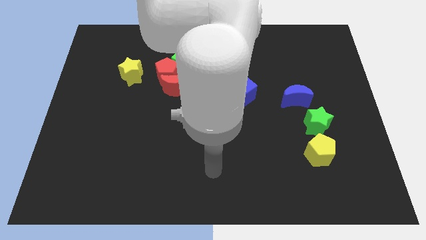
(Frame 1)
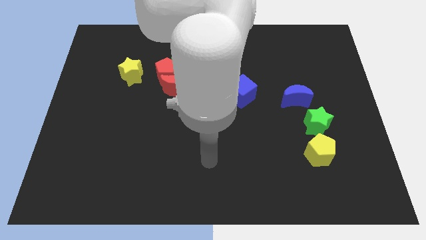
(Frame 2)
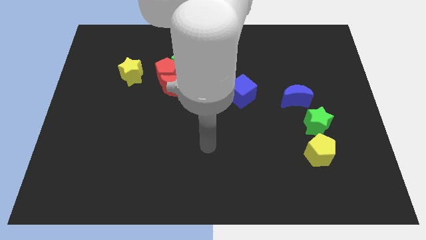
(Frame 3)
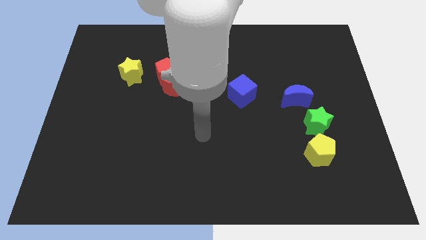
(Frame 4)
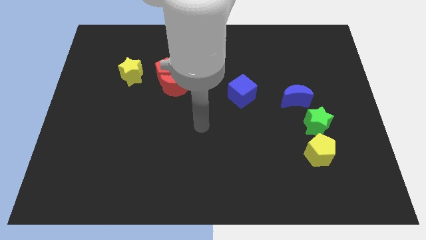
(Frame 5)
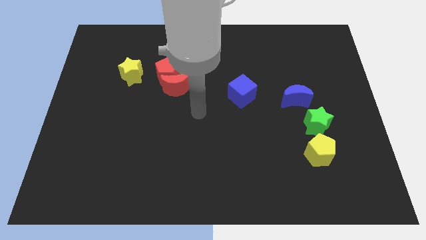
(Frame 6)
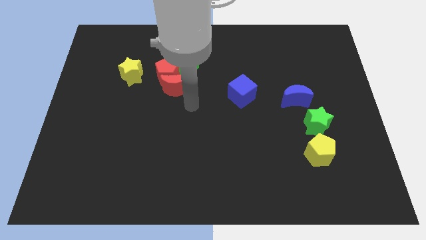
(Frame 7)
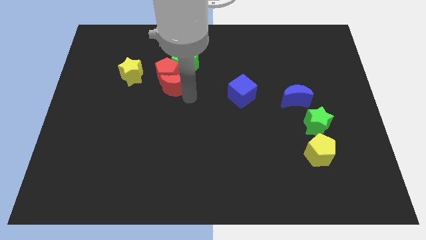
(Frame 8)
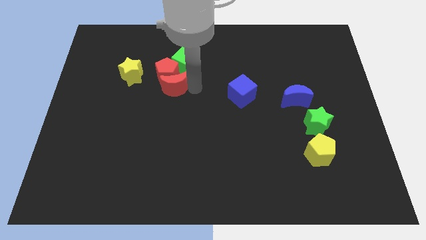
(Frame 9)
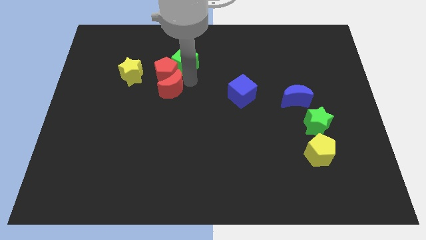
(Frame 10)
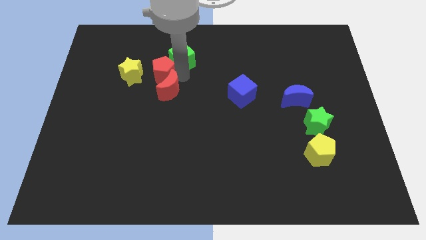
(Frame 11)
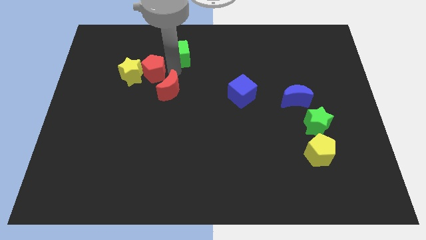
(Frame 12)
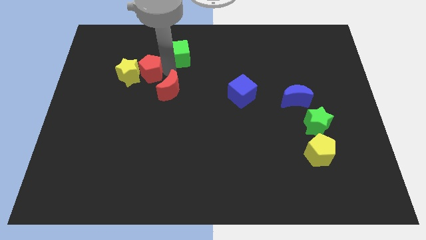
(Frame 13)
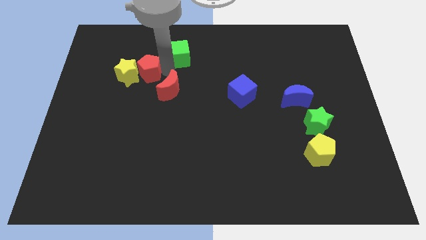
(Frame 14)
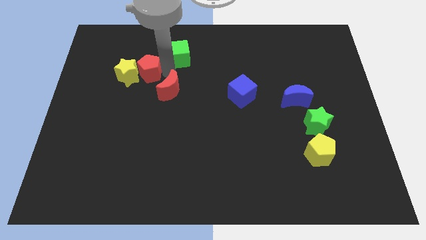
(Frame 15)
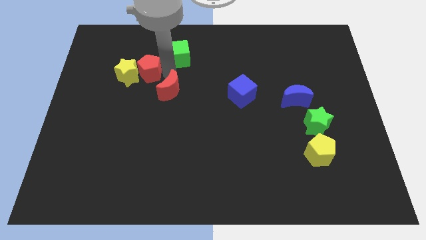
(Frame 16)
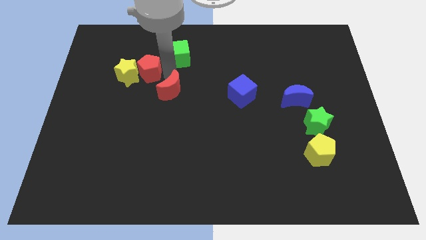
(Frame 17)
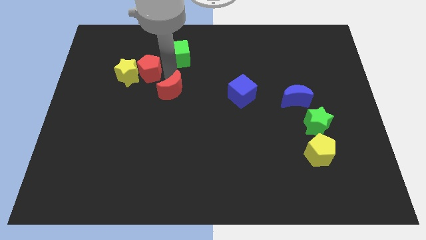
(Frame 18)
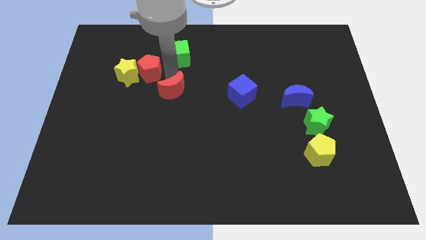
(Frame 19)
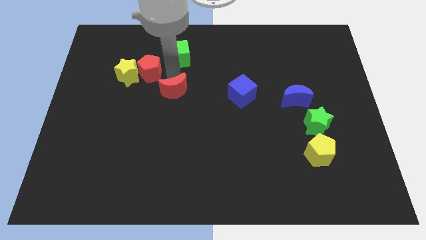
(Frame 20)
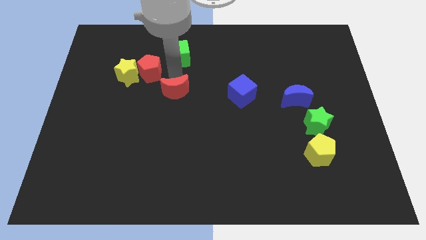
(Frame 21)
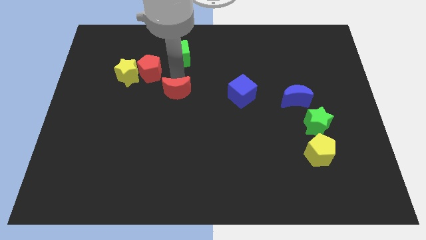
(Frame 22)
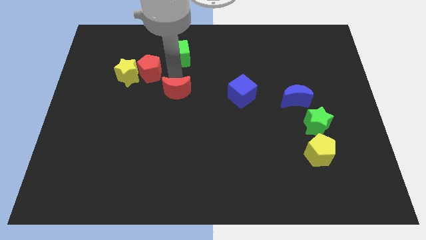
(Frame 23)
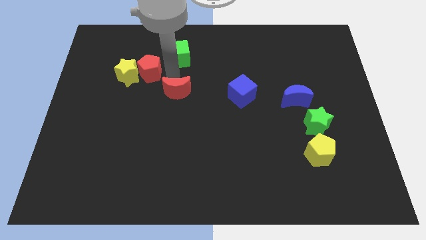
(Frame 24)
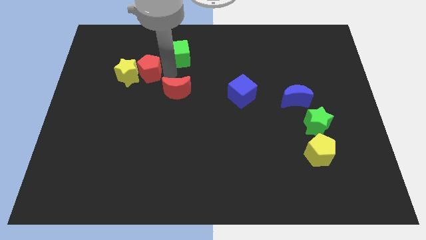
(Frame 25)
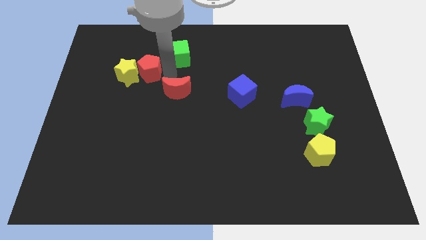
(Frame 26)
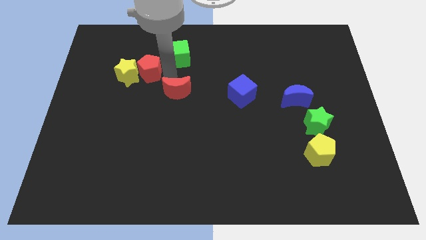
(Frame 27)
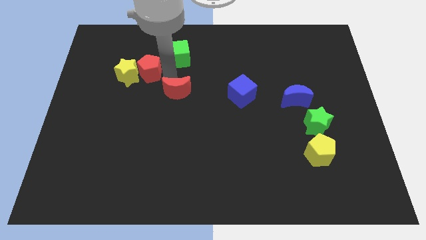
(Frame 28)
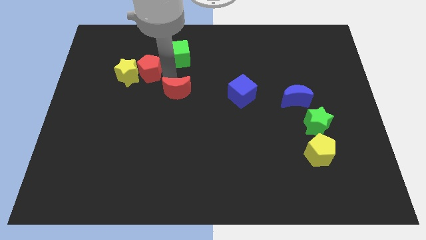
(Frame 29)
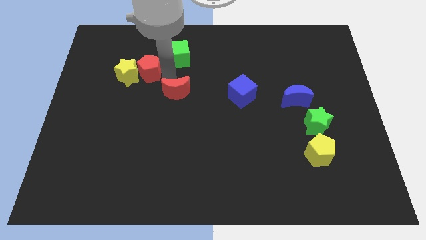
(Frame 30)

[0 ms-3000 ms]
separate the red moon from the red pentagon and green cube

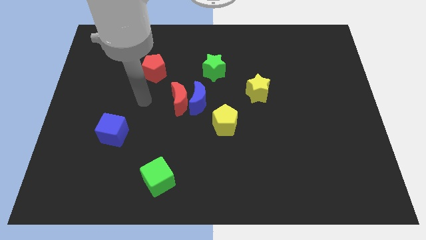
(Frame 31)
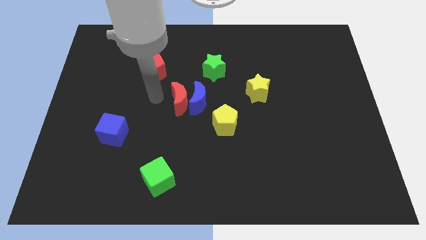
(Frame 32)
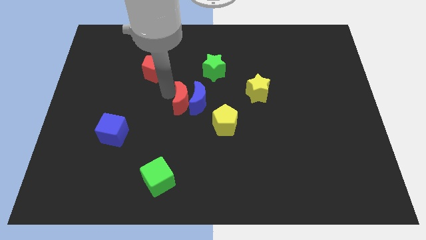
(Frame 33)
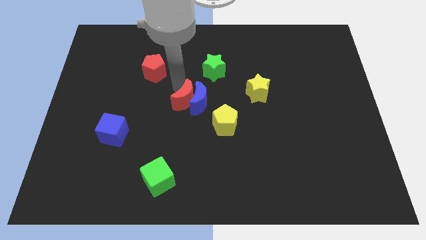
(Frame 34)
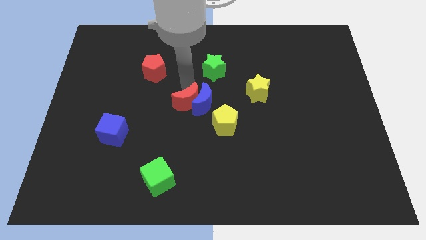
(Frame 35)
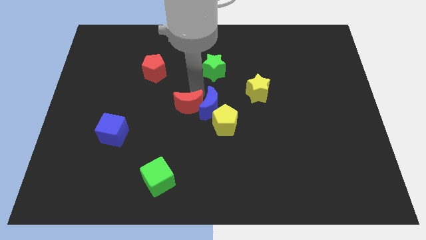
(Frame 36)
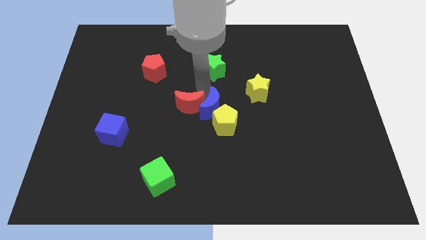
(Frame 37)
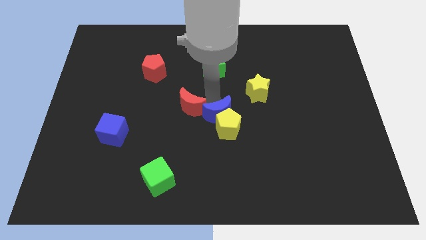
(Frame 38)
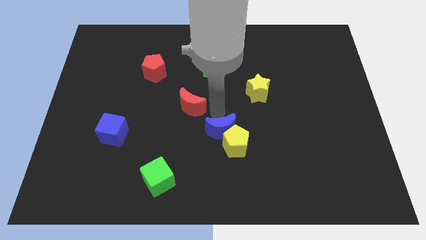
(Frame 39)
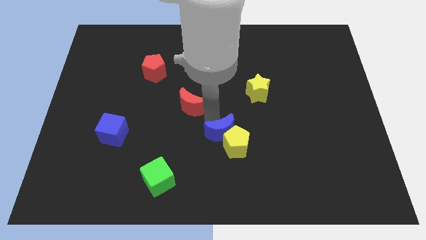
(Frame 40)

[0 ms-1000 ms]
pull the red moon apart from the blue moon

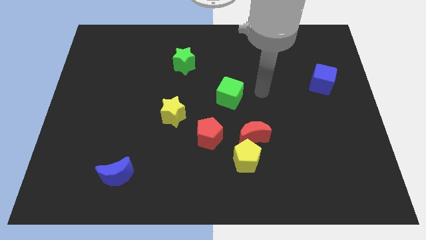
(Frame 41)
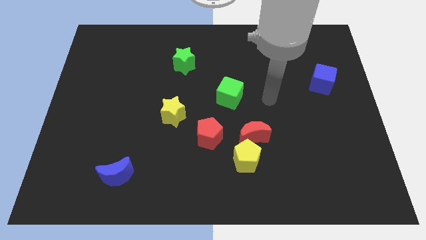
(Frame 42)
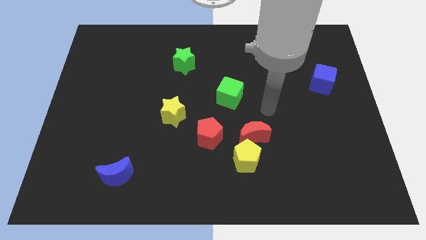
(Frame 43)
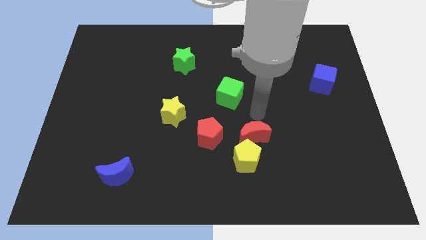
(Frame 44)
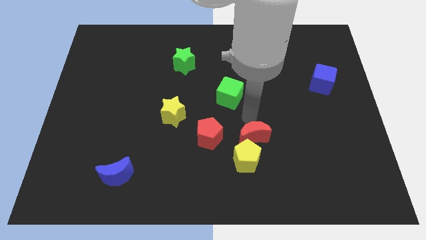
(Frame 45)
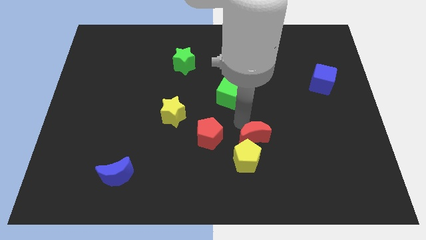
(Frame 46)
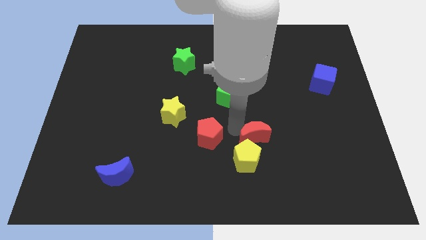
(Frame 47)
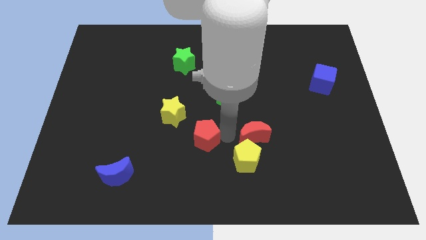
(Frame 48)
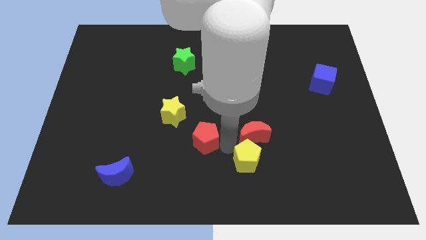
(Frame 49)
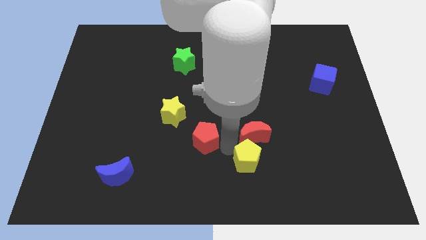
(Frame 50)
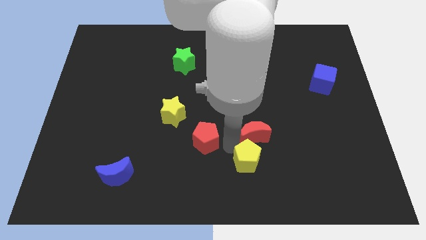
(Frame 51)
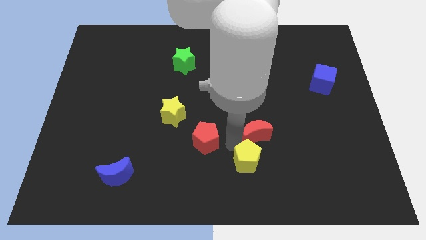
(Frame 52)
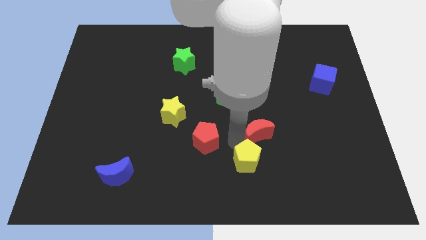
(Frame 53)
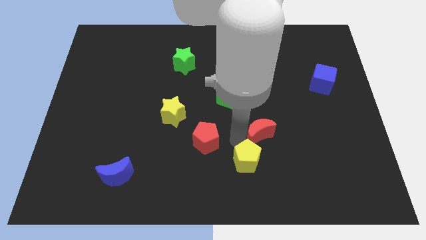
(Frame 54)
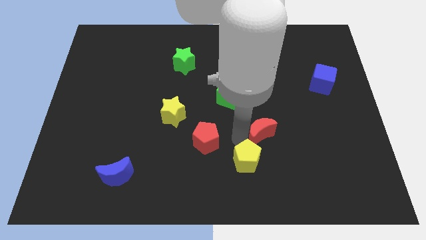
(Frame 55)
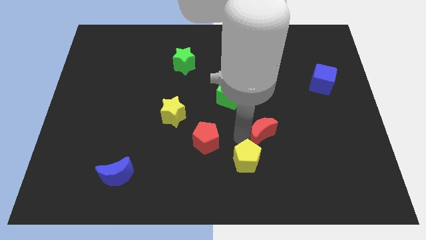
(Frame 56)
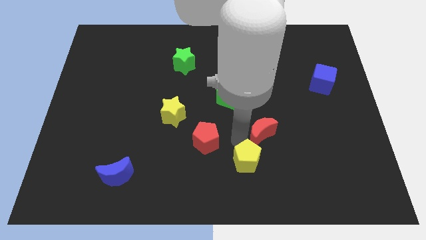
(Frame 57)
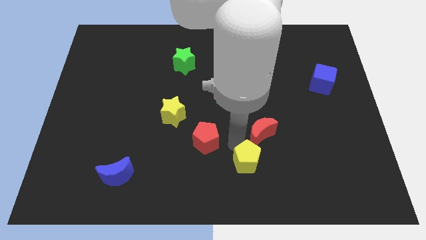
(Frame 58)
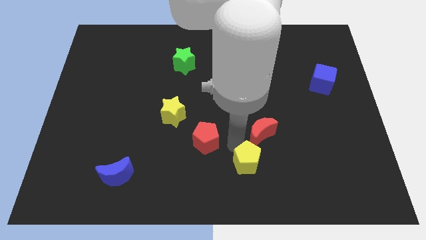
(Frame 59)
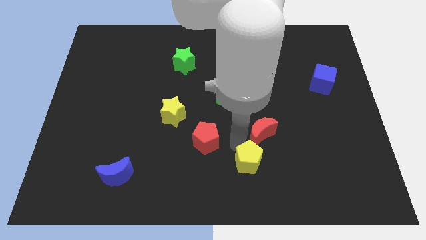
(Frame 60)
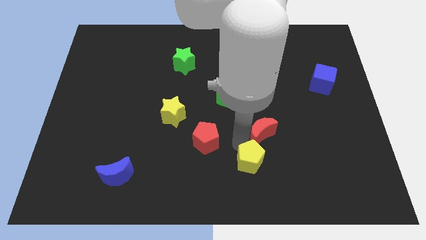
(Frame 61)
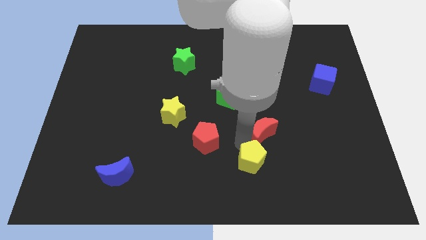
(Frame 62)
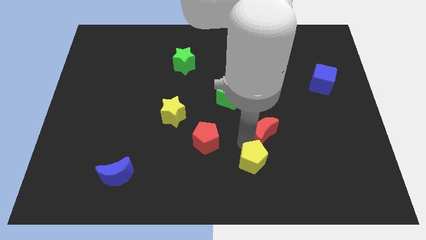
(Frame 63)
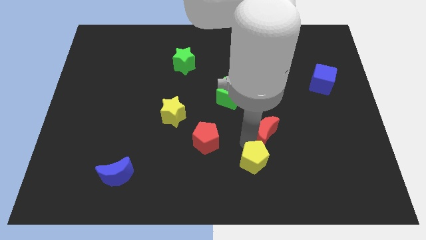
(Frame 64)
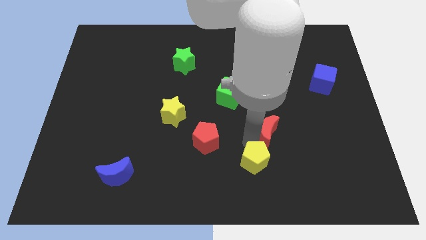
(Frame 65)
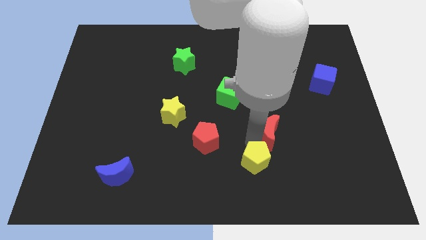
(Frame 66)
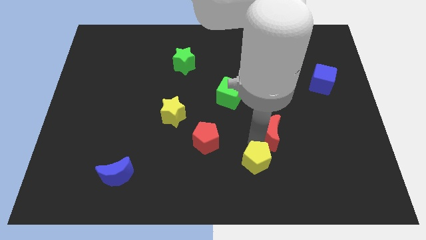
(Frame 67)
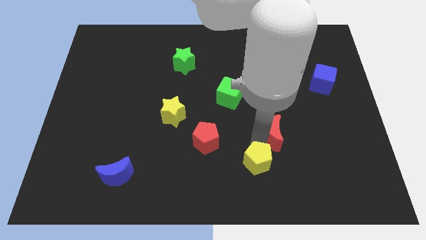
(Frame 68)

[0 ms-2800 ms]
separate the red moon from the yellow pentagon and red pentagon

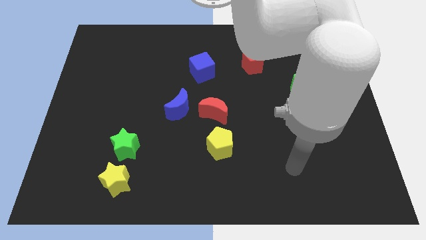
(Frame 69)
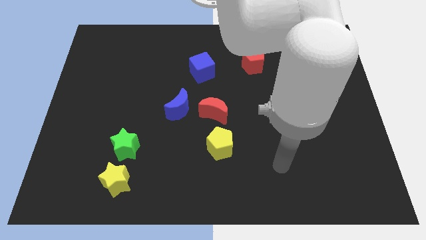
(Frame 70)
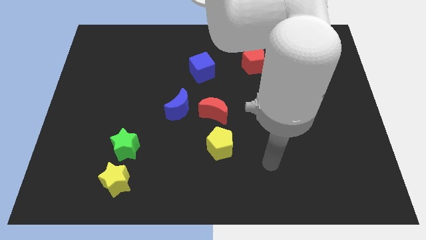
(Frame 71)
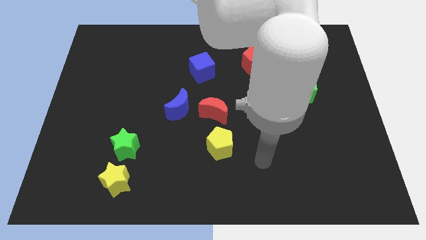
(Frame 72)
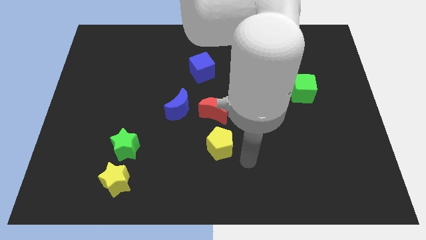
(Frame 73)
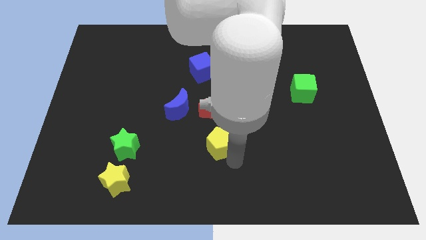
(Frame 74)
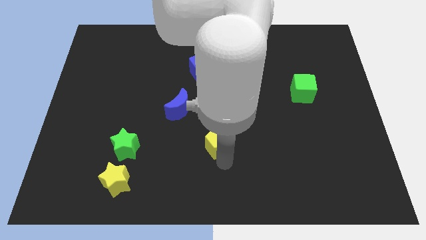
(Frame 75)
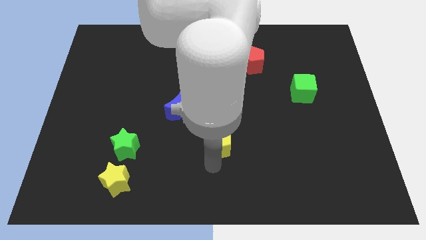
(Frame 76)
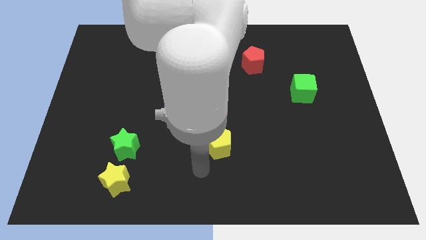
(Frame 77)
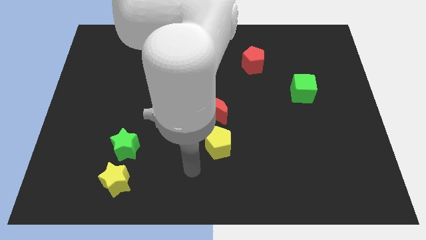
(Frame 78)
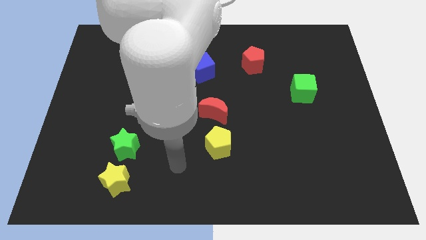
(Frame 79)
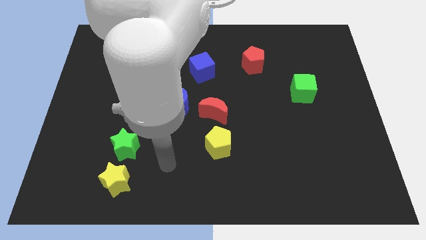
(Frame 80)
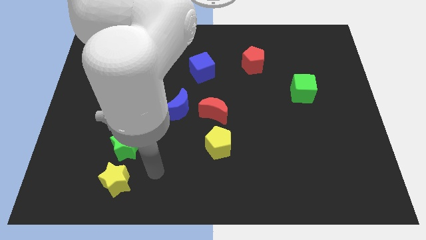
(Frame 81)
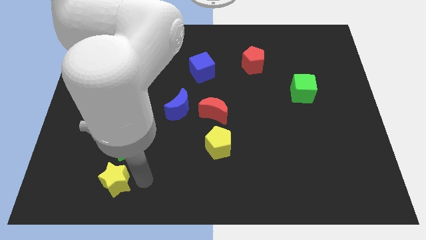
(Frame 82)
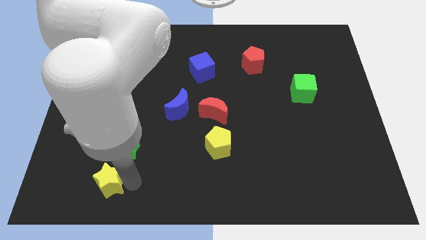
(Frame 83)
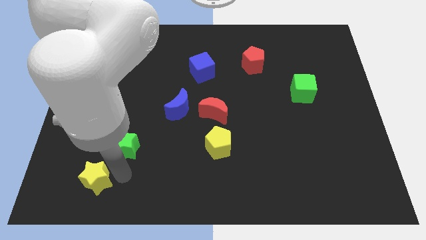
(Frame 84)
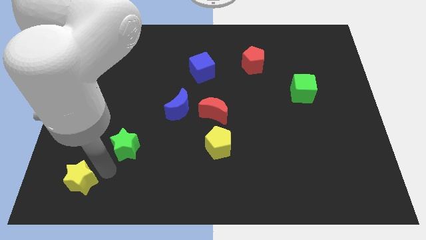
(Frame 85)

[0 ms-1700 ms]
pull the green star apart from the yellow star

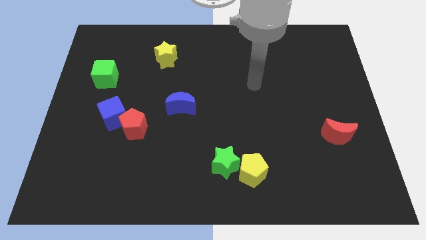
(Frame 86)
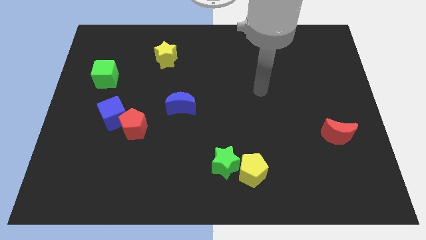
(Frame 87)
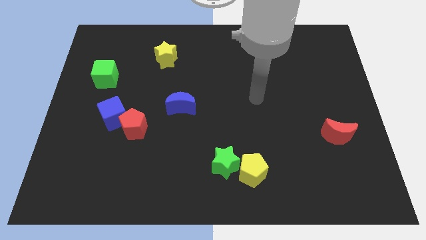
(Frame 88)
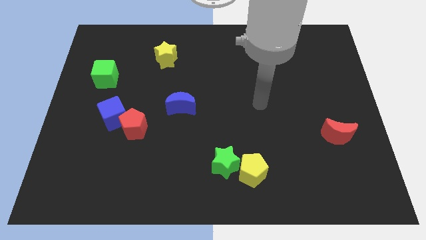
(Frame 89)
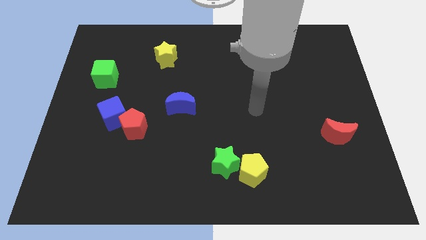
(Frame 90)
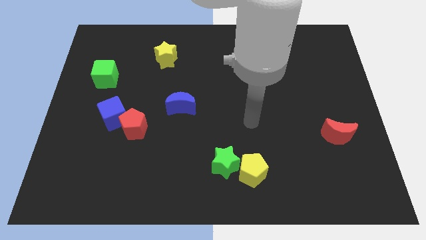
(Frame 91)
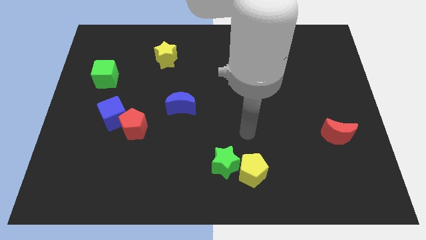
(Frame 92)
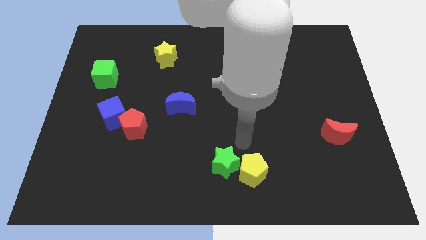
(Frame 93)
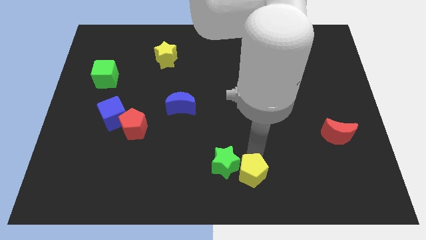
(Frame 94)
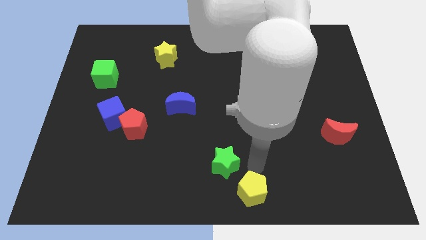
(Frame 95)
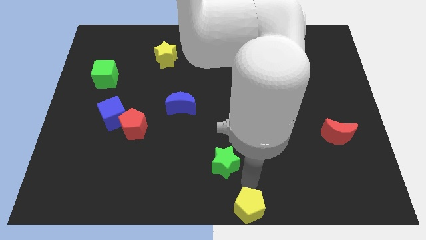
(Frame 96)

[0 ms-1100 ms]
move the green star away from the yellow pentagon
